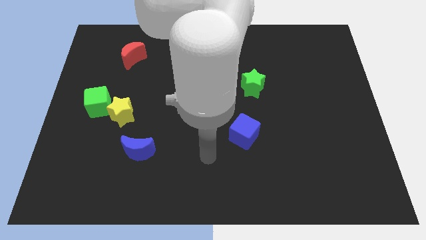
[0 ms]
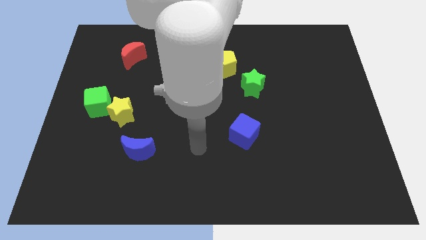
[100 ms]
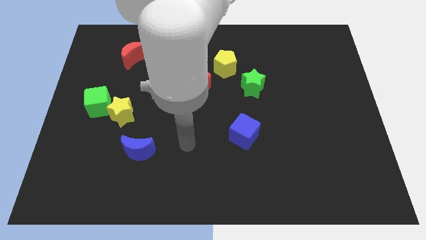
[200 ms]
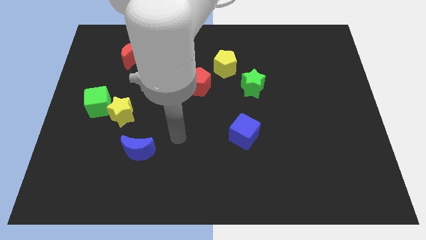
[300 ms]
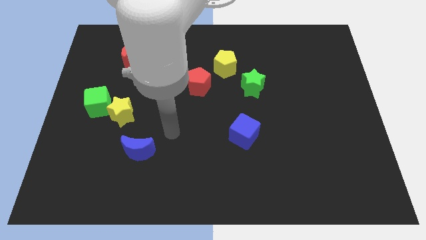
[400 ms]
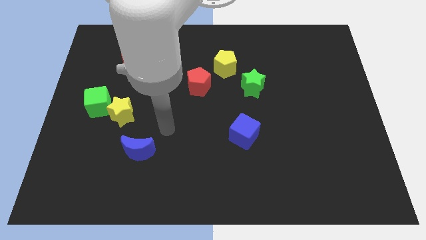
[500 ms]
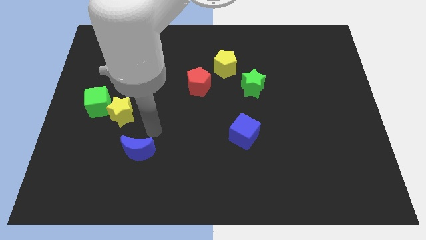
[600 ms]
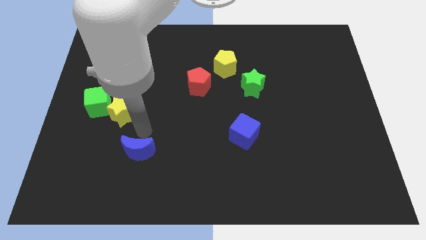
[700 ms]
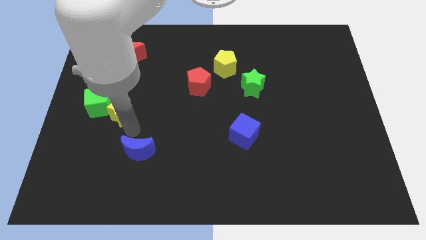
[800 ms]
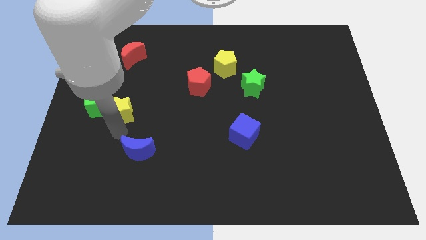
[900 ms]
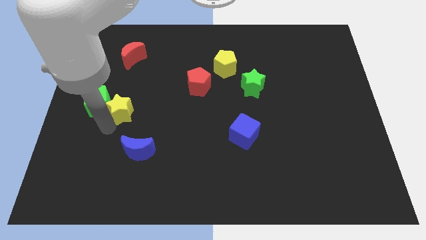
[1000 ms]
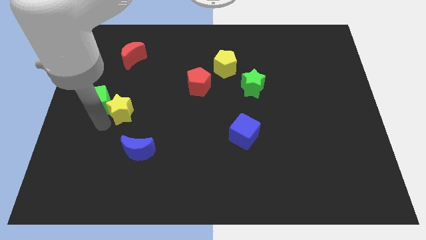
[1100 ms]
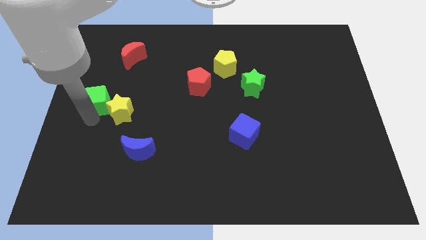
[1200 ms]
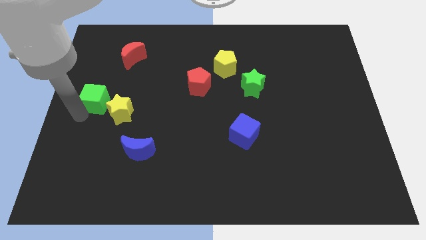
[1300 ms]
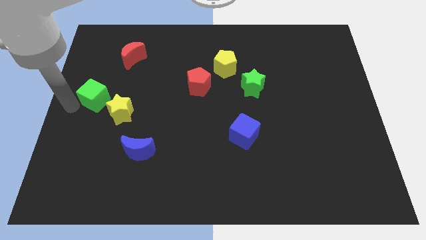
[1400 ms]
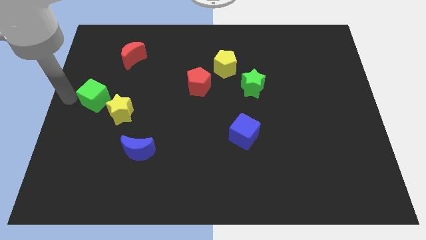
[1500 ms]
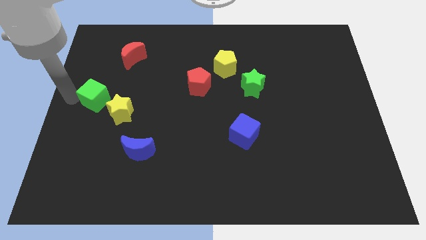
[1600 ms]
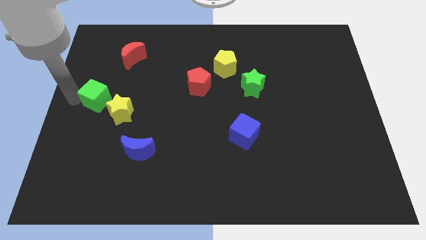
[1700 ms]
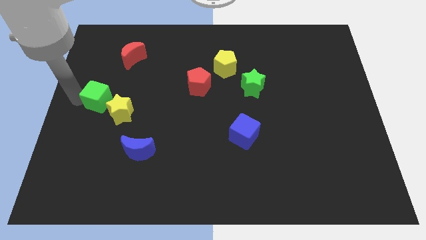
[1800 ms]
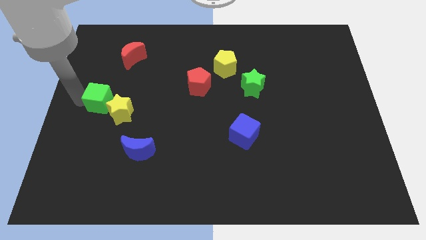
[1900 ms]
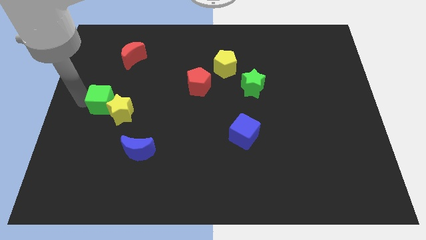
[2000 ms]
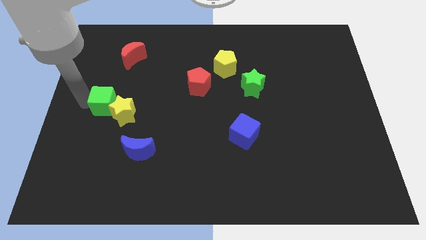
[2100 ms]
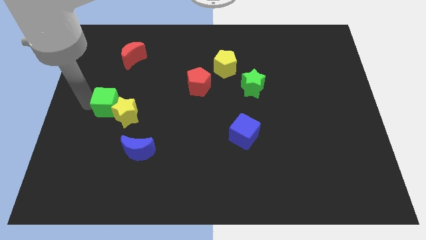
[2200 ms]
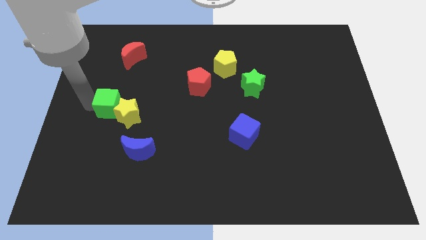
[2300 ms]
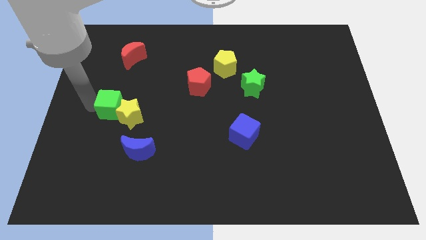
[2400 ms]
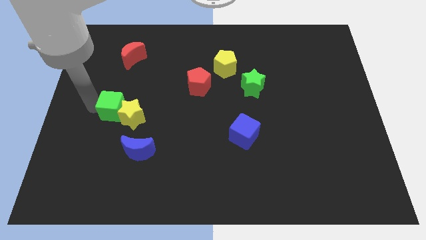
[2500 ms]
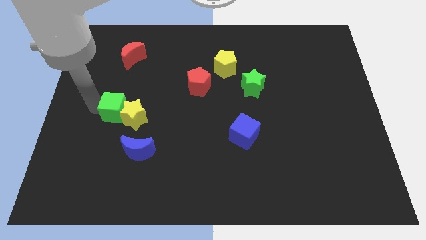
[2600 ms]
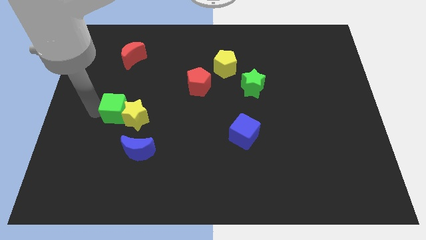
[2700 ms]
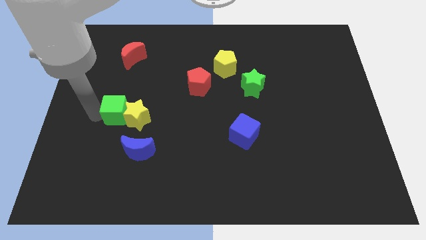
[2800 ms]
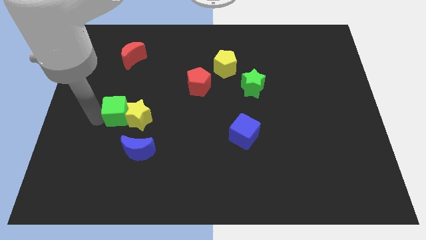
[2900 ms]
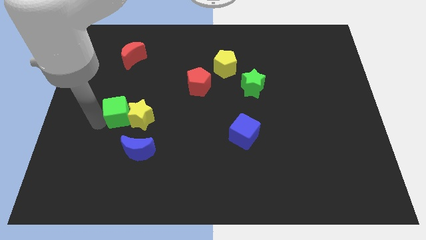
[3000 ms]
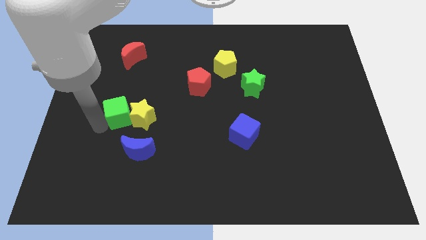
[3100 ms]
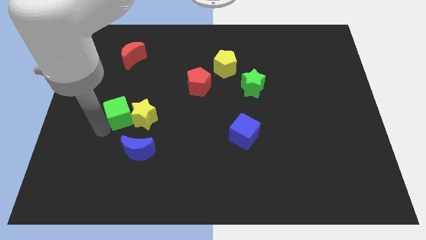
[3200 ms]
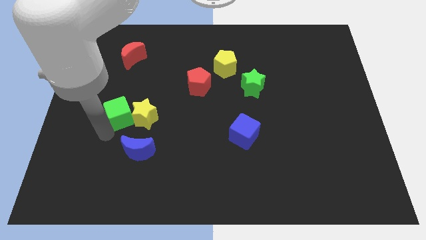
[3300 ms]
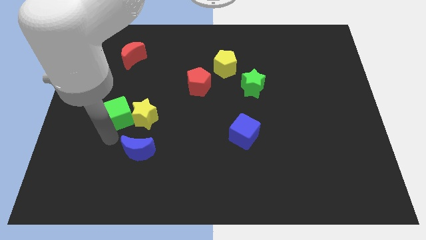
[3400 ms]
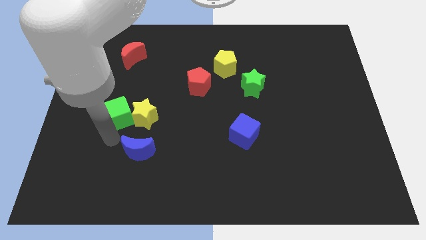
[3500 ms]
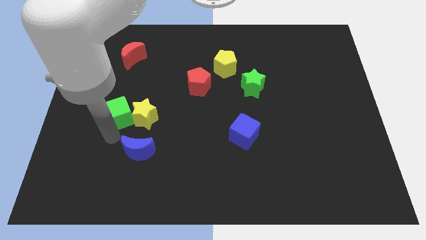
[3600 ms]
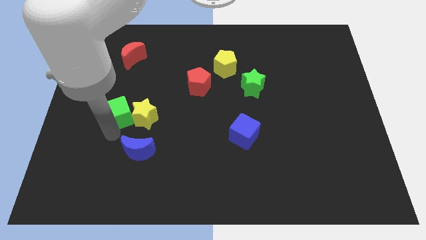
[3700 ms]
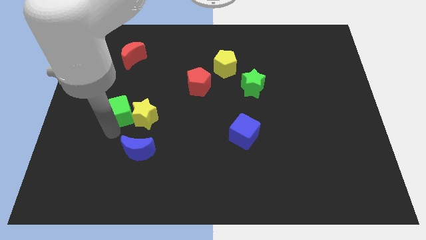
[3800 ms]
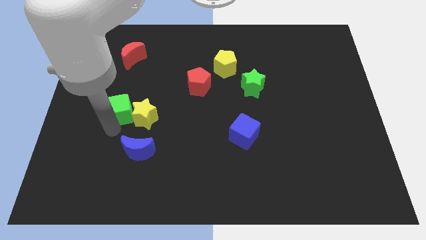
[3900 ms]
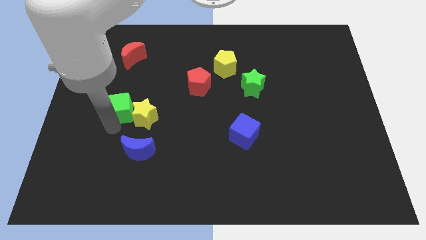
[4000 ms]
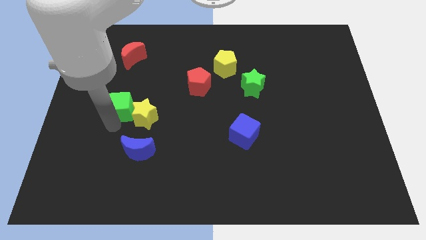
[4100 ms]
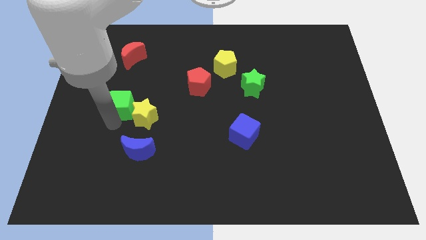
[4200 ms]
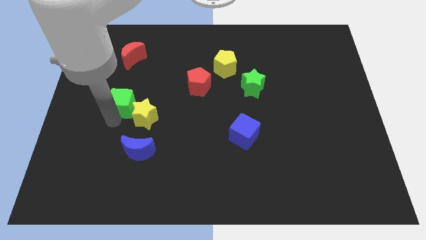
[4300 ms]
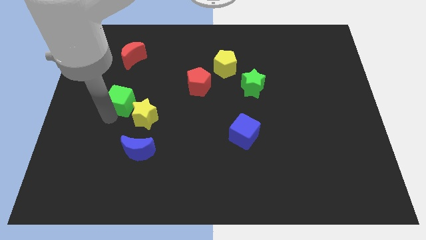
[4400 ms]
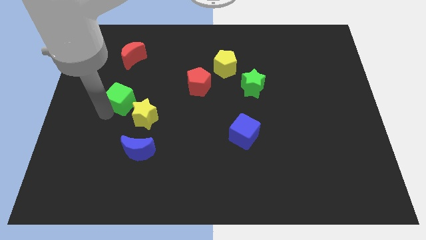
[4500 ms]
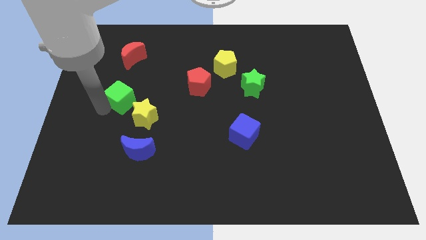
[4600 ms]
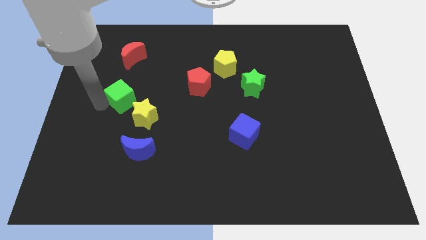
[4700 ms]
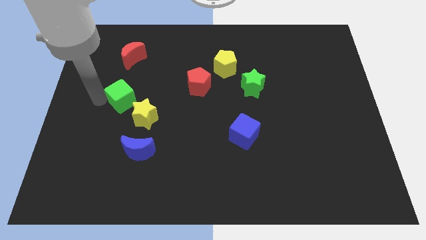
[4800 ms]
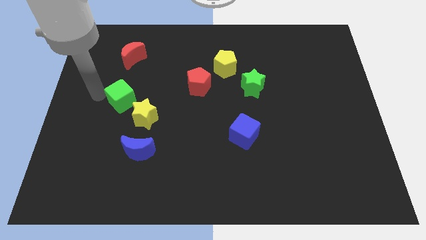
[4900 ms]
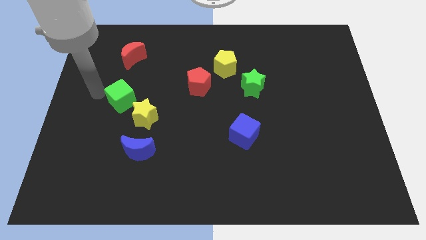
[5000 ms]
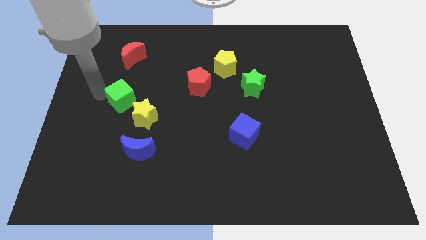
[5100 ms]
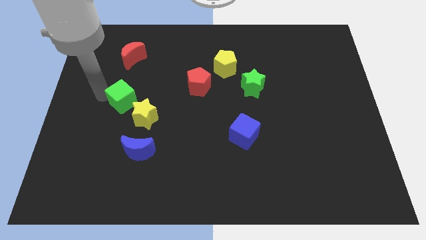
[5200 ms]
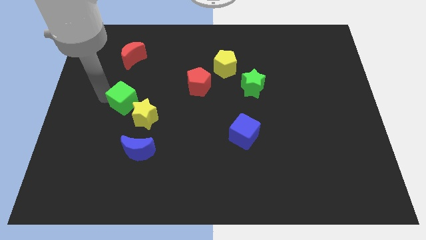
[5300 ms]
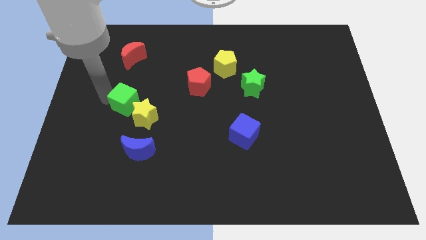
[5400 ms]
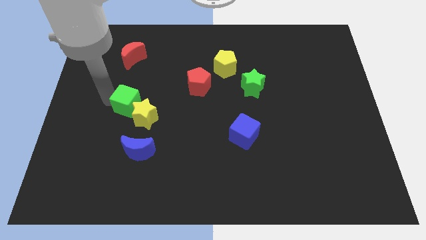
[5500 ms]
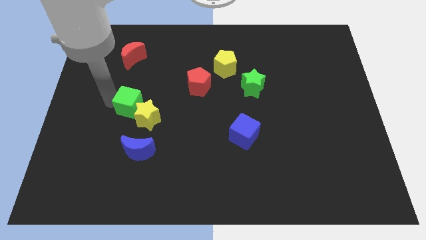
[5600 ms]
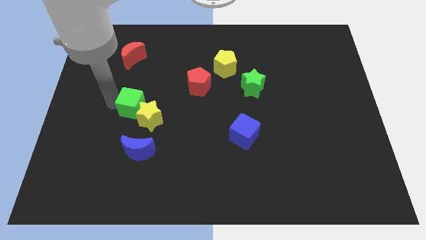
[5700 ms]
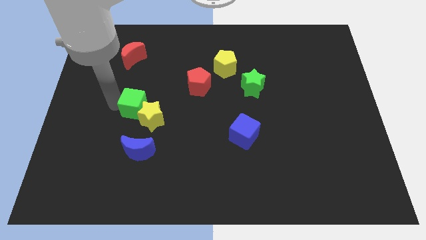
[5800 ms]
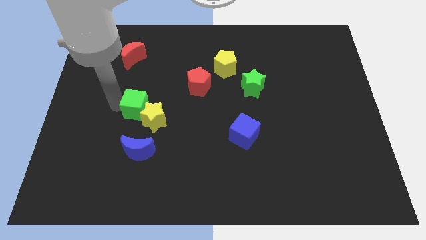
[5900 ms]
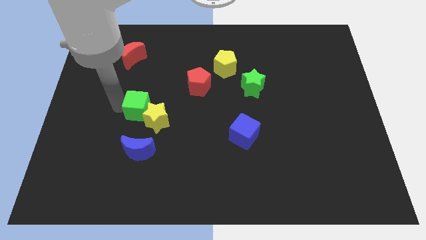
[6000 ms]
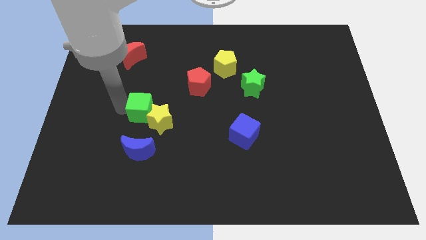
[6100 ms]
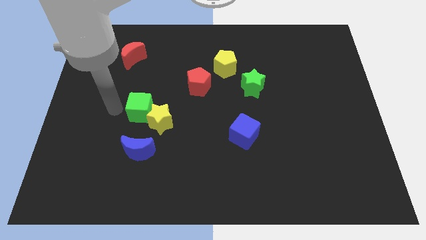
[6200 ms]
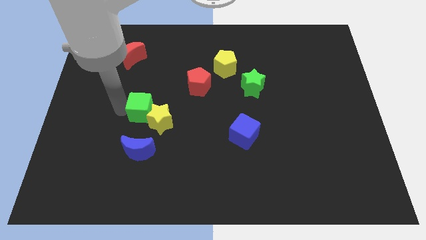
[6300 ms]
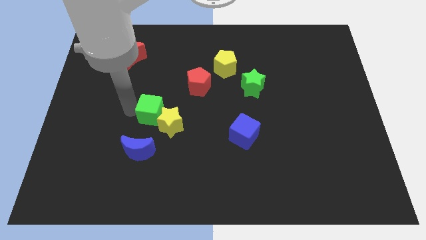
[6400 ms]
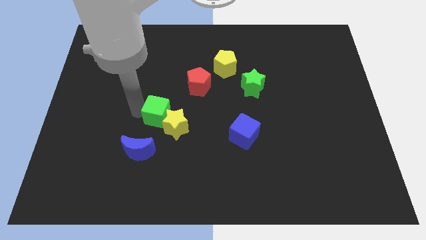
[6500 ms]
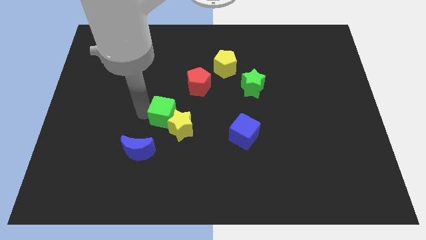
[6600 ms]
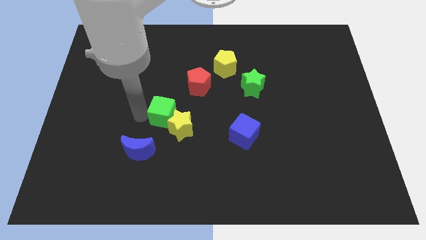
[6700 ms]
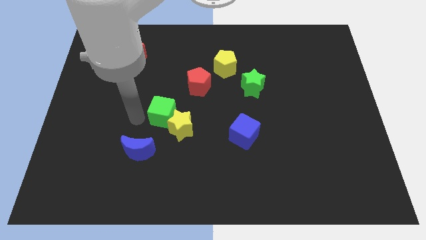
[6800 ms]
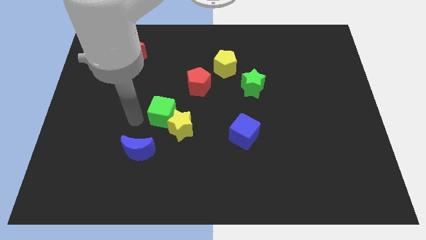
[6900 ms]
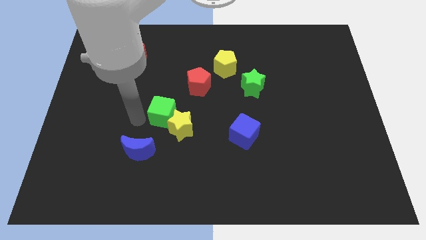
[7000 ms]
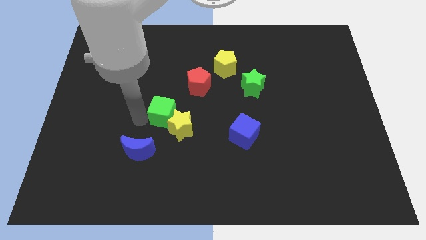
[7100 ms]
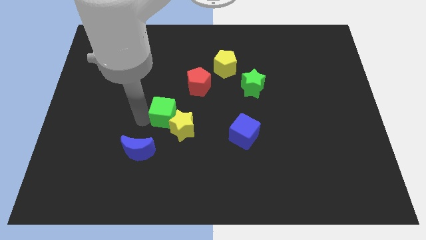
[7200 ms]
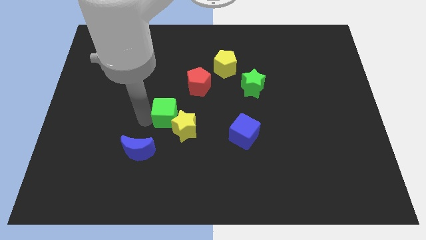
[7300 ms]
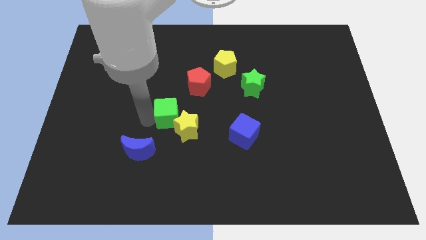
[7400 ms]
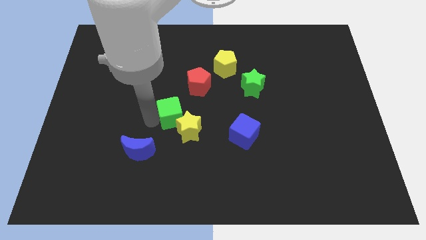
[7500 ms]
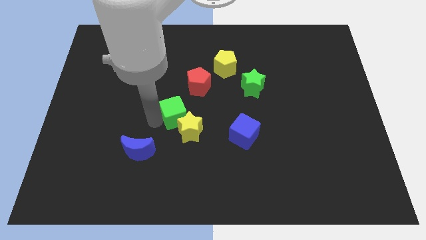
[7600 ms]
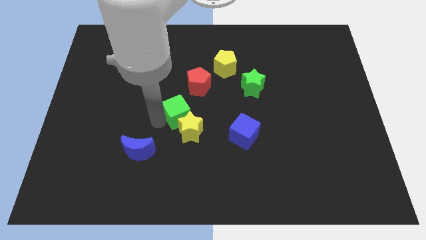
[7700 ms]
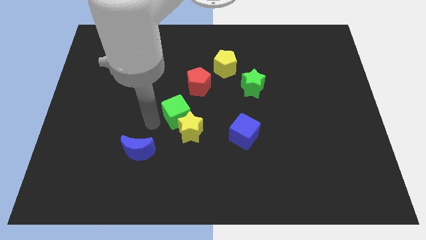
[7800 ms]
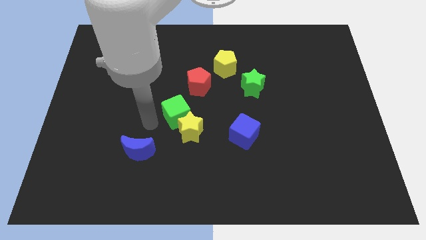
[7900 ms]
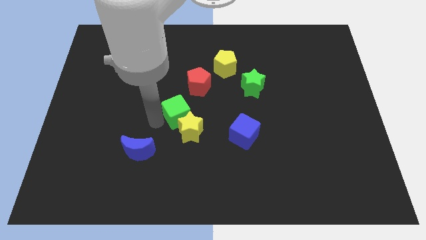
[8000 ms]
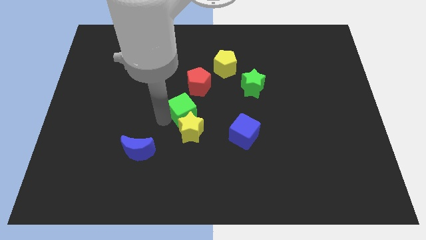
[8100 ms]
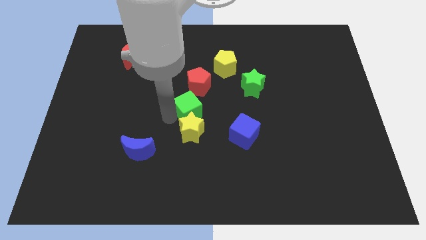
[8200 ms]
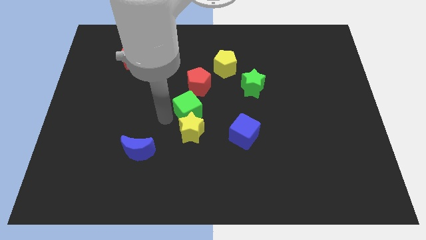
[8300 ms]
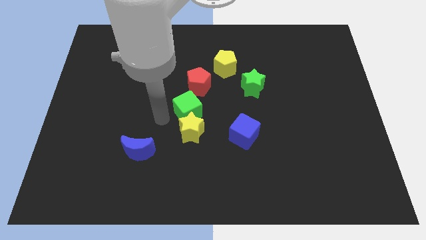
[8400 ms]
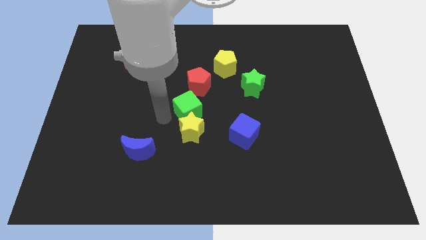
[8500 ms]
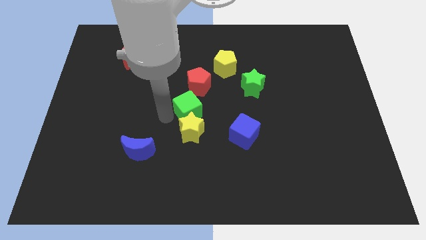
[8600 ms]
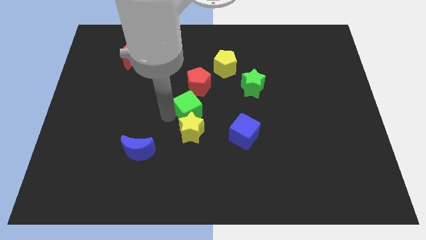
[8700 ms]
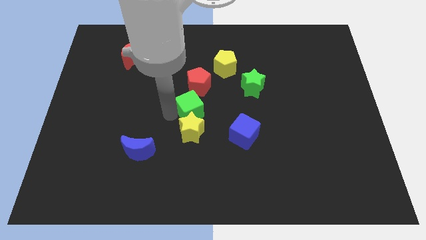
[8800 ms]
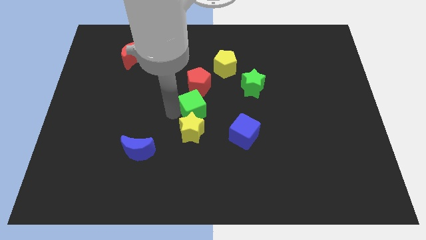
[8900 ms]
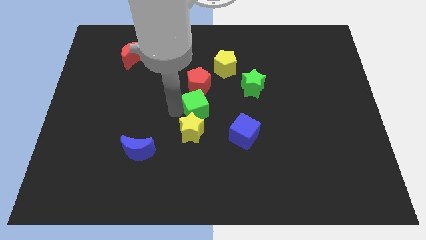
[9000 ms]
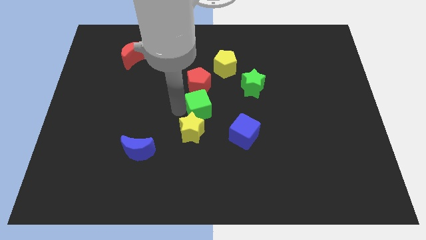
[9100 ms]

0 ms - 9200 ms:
move the green cube to the bottom right of the red pentagon
